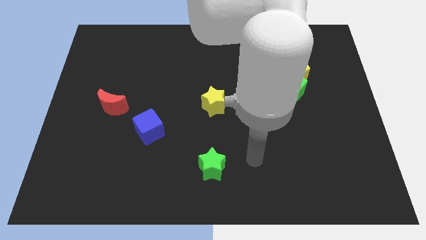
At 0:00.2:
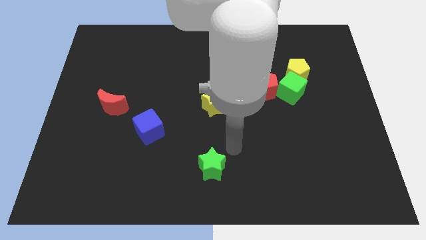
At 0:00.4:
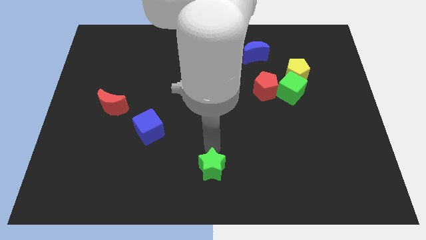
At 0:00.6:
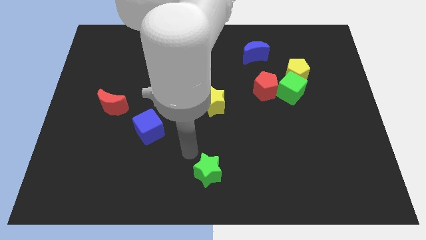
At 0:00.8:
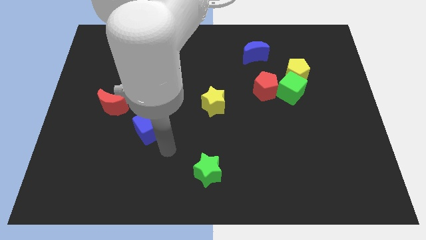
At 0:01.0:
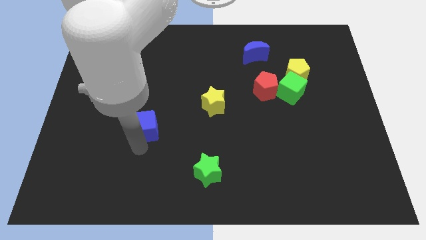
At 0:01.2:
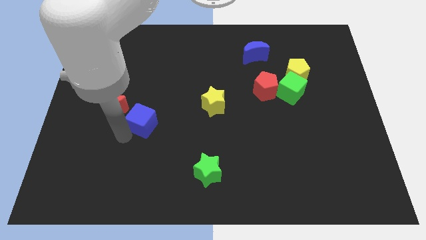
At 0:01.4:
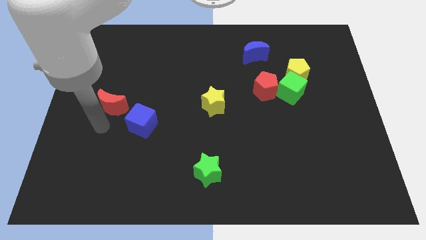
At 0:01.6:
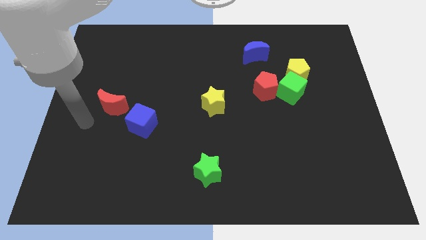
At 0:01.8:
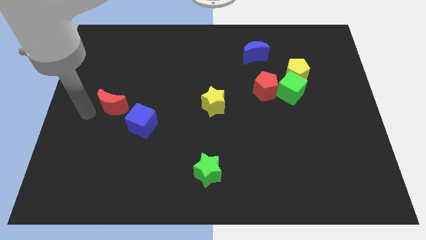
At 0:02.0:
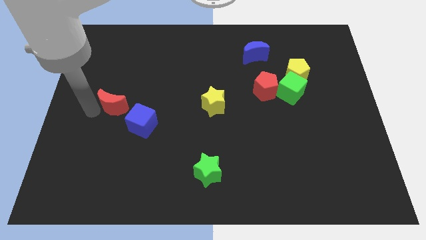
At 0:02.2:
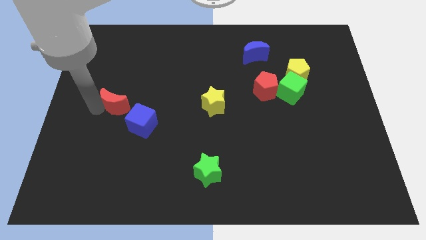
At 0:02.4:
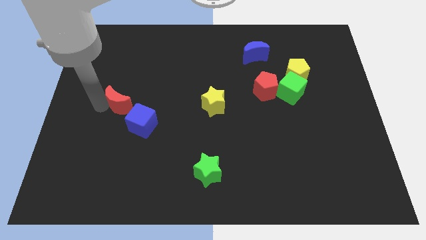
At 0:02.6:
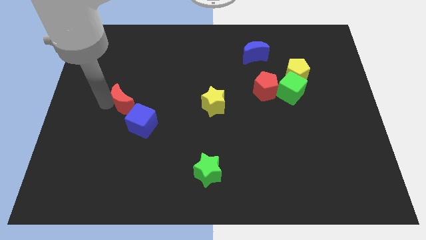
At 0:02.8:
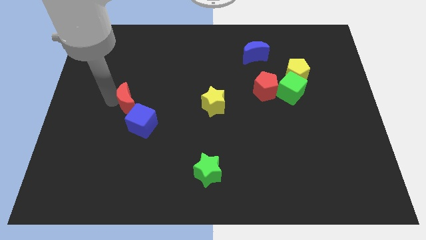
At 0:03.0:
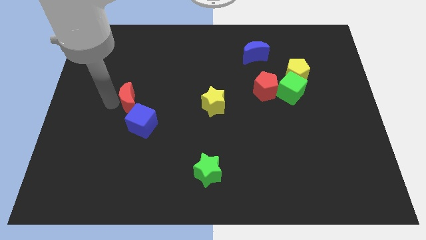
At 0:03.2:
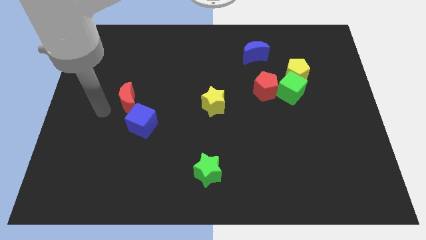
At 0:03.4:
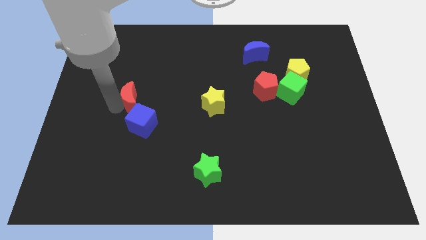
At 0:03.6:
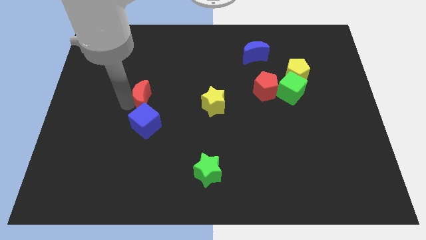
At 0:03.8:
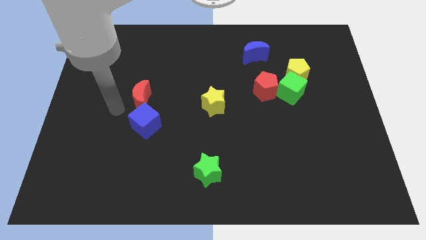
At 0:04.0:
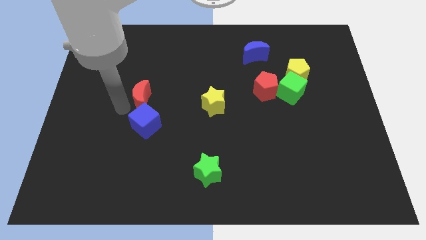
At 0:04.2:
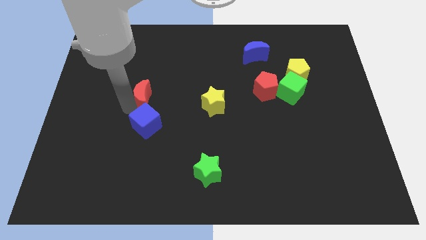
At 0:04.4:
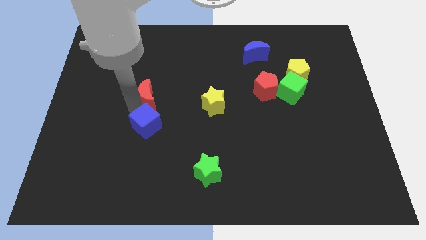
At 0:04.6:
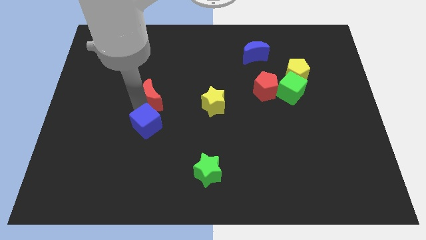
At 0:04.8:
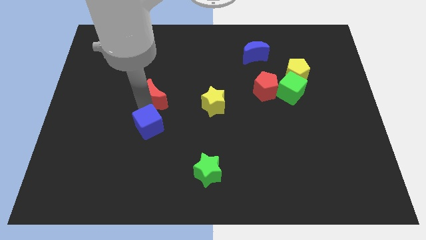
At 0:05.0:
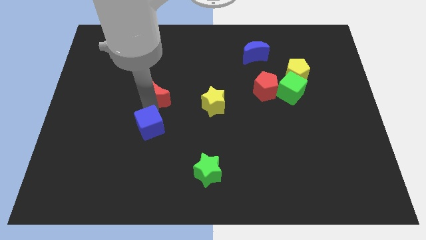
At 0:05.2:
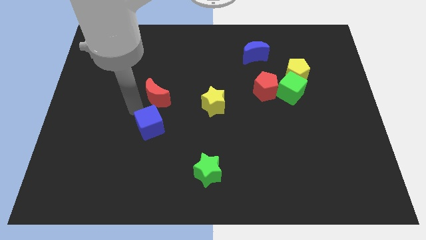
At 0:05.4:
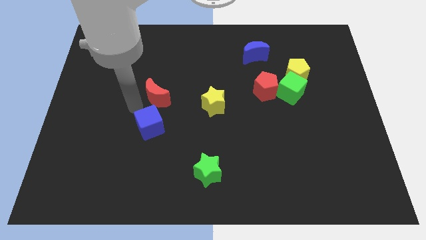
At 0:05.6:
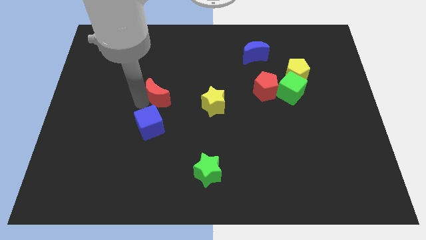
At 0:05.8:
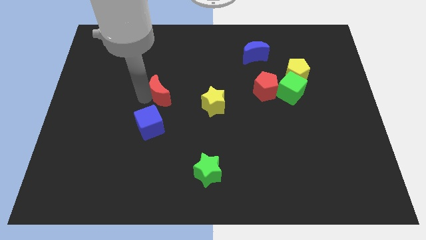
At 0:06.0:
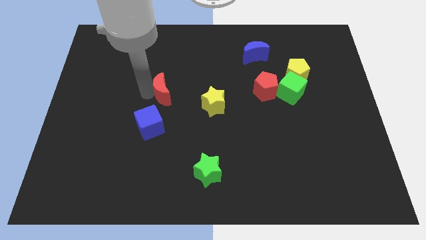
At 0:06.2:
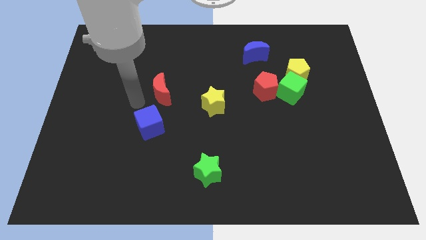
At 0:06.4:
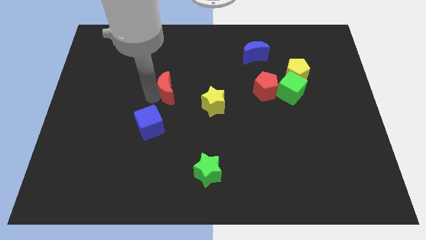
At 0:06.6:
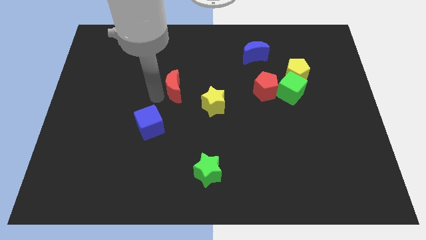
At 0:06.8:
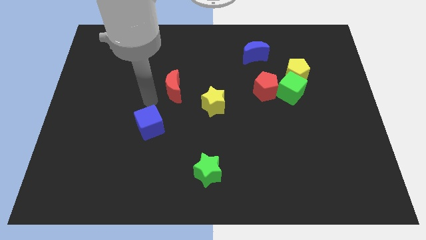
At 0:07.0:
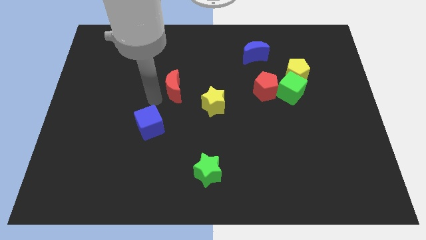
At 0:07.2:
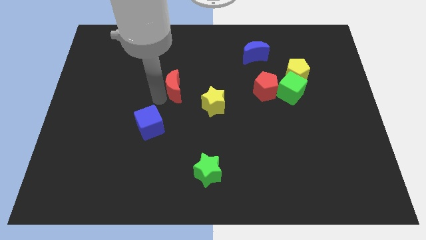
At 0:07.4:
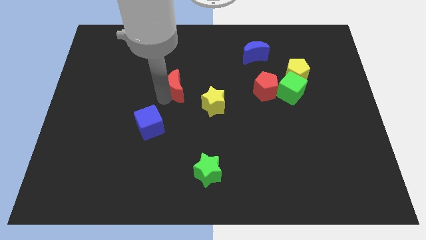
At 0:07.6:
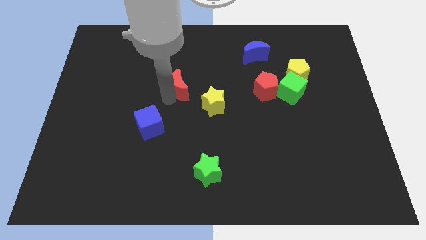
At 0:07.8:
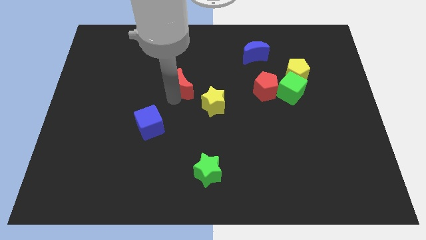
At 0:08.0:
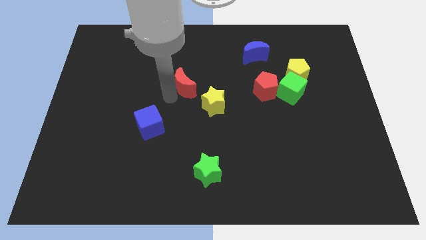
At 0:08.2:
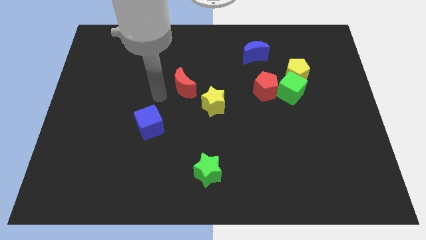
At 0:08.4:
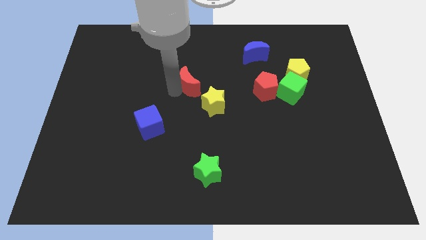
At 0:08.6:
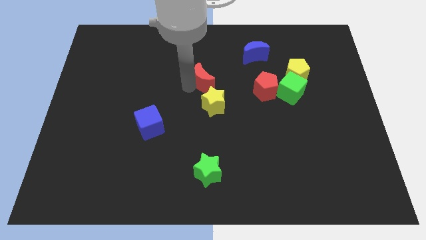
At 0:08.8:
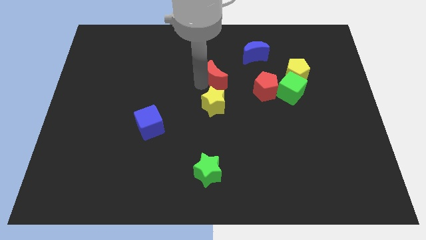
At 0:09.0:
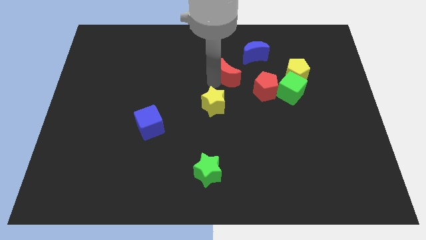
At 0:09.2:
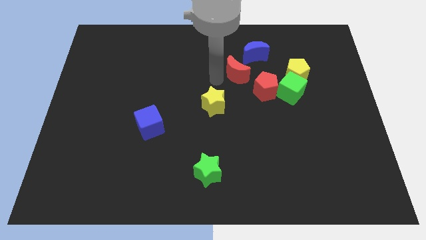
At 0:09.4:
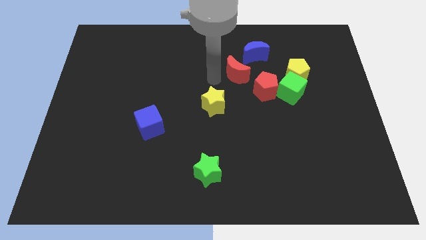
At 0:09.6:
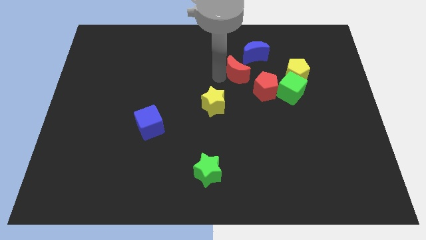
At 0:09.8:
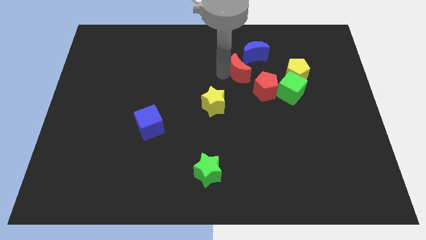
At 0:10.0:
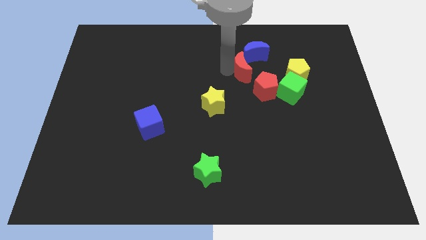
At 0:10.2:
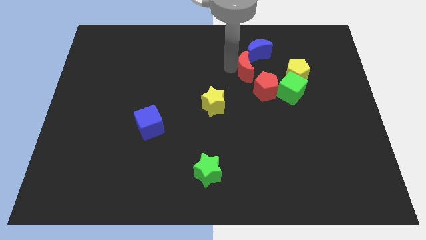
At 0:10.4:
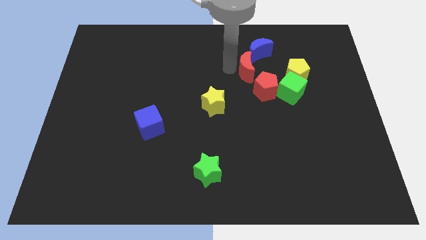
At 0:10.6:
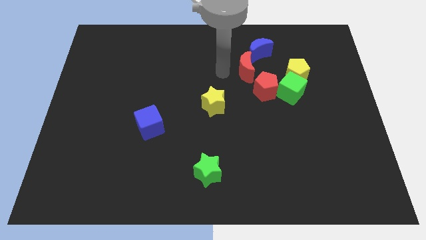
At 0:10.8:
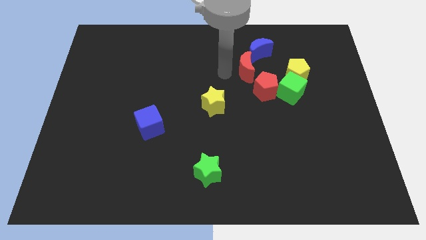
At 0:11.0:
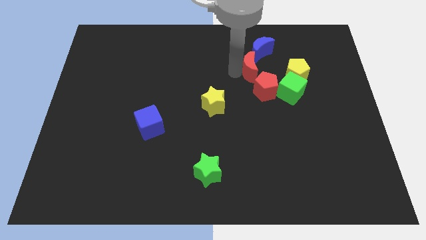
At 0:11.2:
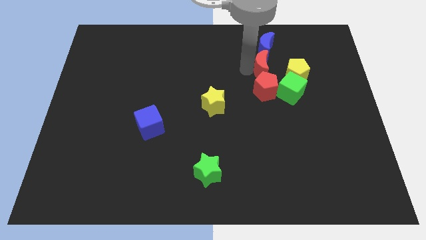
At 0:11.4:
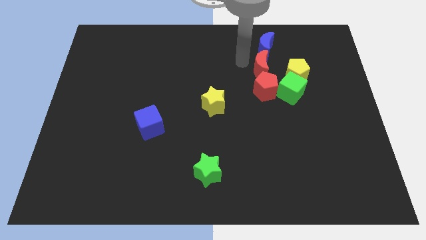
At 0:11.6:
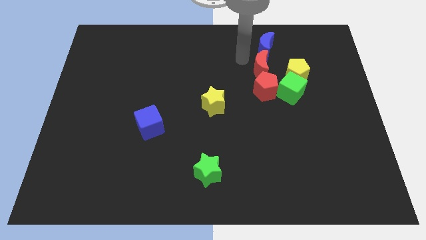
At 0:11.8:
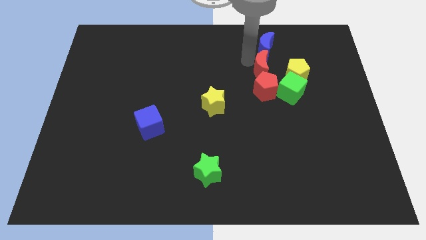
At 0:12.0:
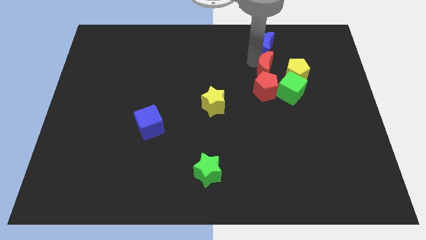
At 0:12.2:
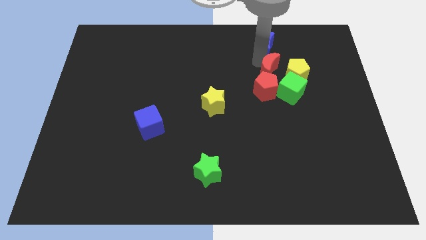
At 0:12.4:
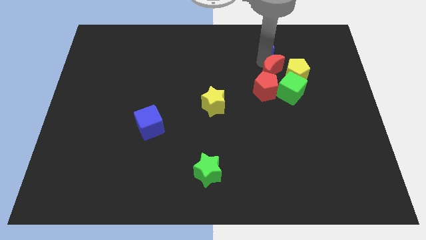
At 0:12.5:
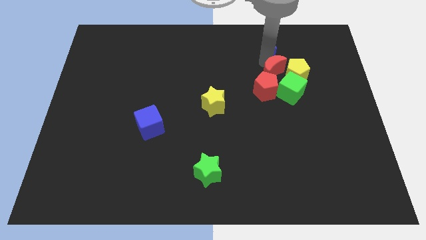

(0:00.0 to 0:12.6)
slide the red moon towards the yellow pentagon

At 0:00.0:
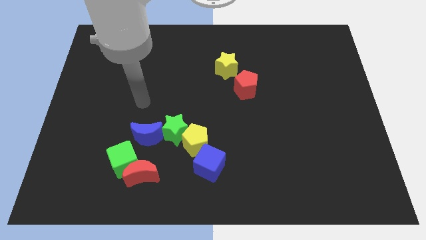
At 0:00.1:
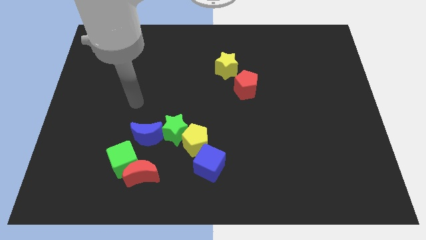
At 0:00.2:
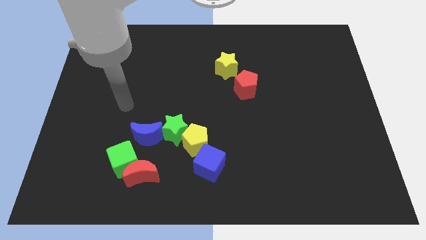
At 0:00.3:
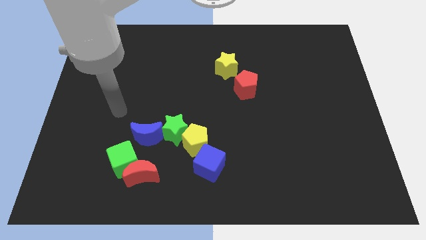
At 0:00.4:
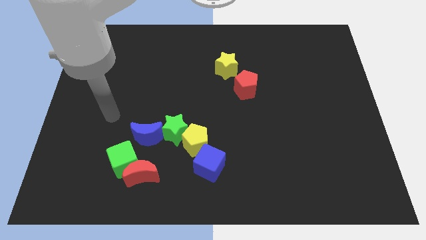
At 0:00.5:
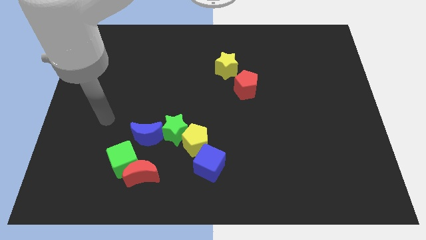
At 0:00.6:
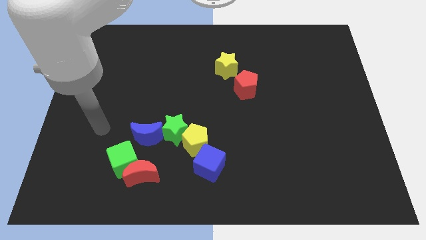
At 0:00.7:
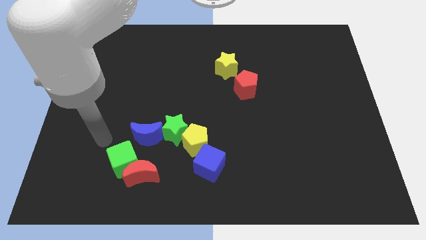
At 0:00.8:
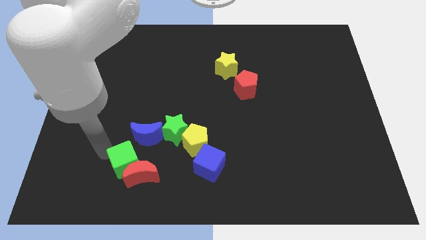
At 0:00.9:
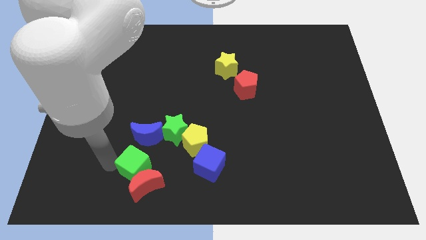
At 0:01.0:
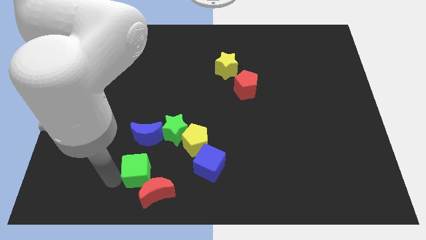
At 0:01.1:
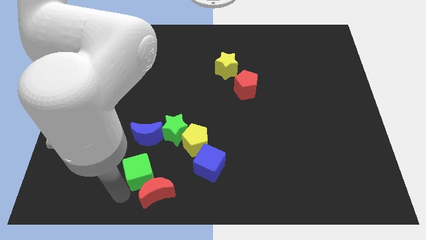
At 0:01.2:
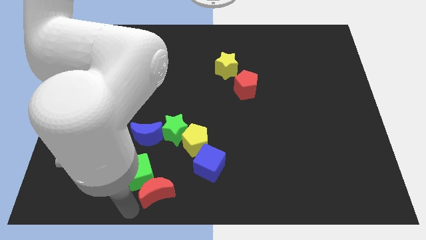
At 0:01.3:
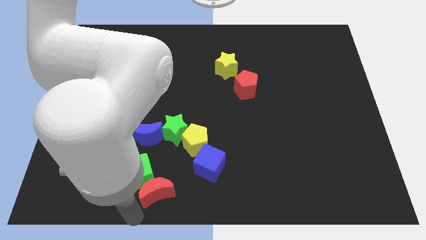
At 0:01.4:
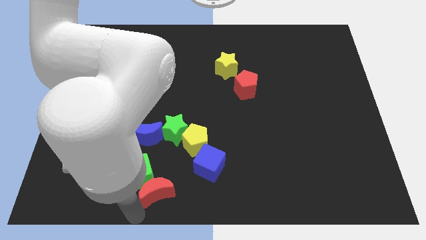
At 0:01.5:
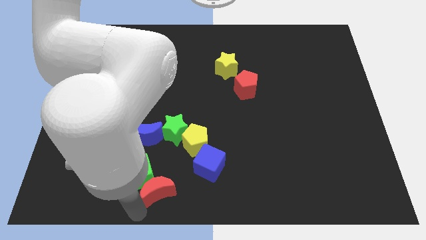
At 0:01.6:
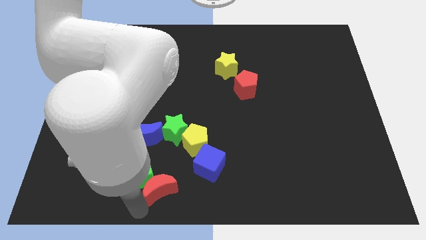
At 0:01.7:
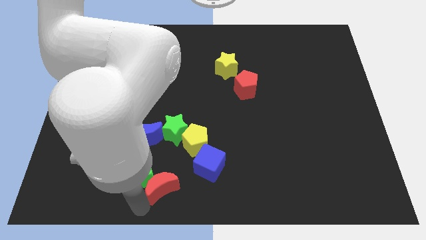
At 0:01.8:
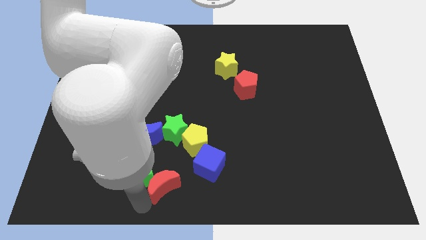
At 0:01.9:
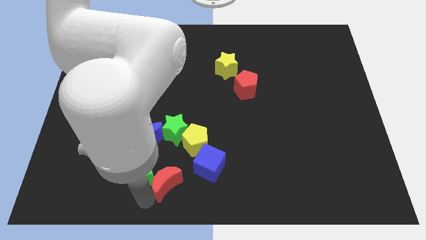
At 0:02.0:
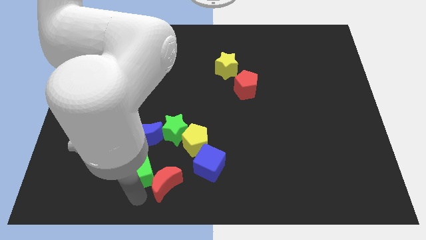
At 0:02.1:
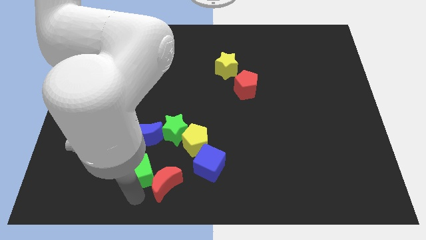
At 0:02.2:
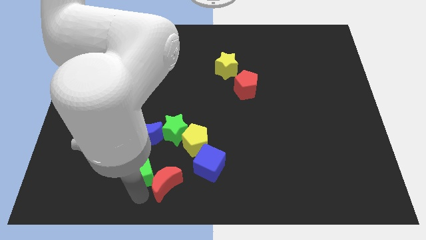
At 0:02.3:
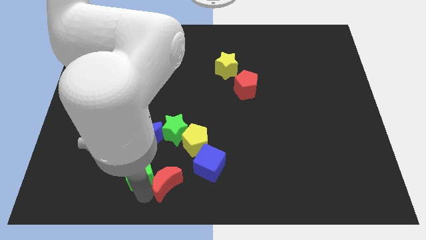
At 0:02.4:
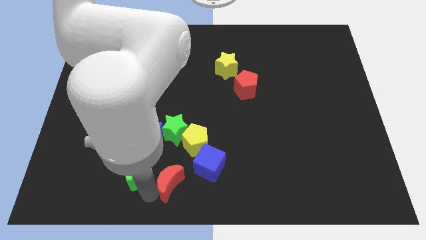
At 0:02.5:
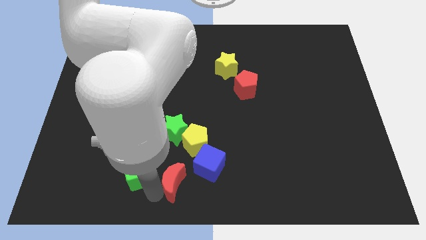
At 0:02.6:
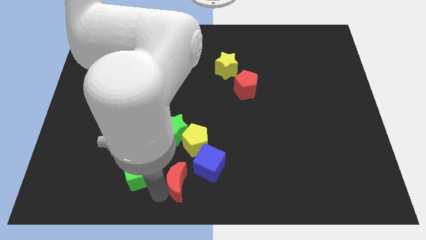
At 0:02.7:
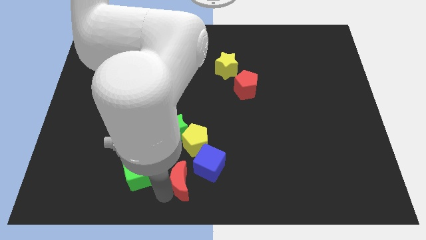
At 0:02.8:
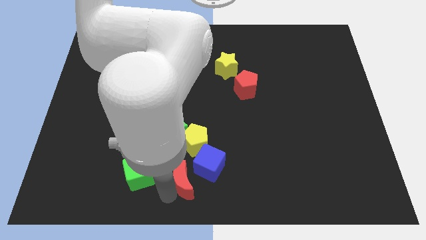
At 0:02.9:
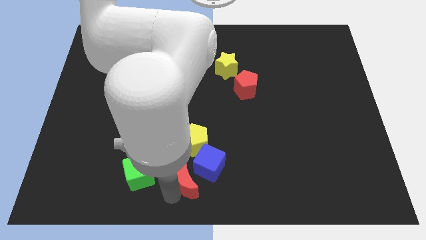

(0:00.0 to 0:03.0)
move the red moon next to the blue cube
